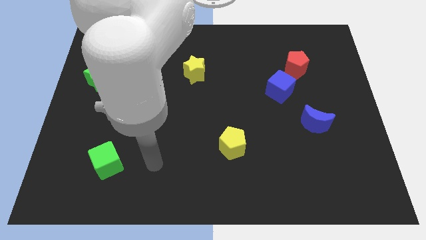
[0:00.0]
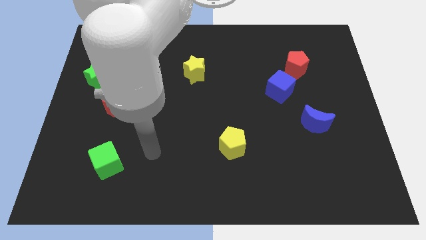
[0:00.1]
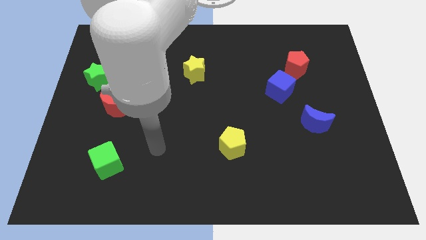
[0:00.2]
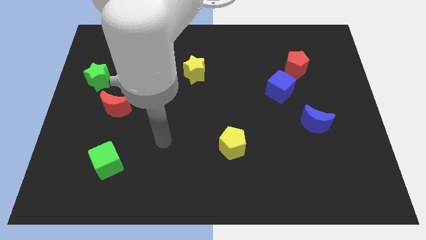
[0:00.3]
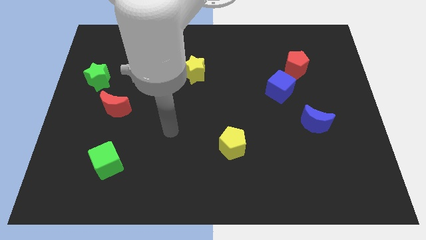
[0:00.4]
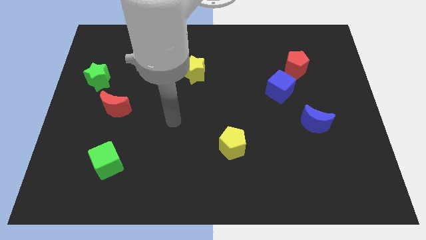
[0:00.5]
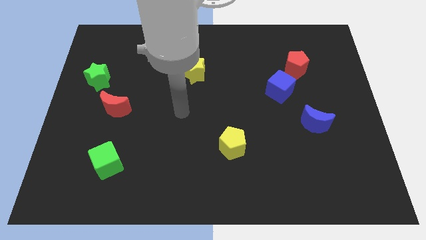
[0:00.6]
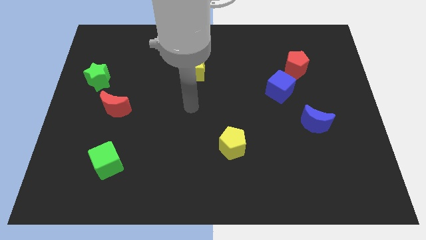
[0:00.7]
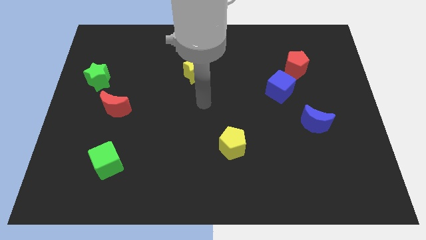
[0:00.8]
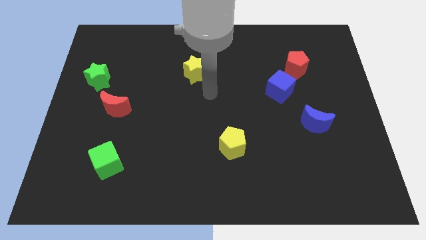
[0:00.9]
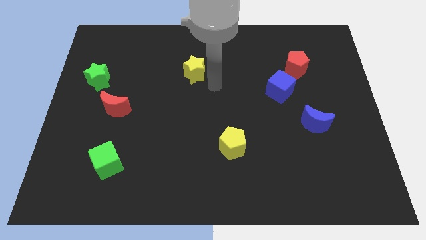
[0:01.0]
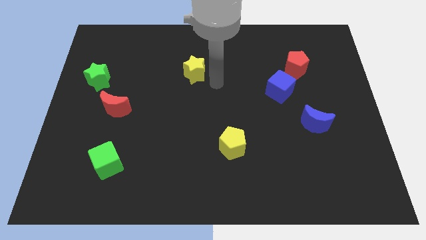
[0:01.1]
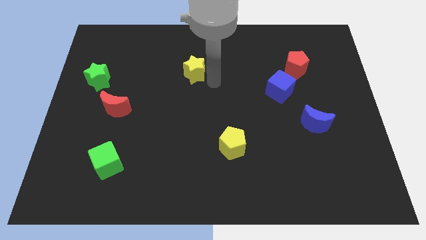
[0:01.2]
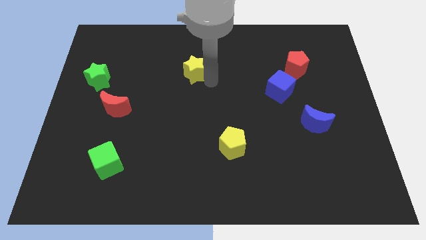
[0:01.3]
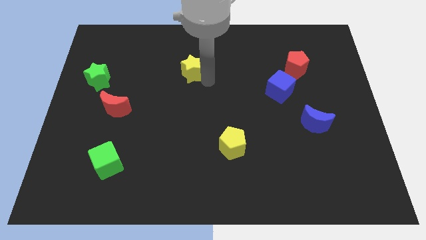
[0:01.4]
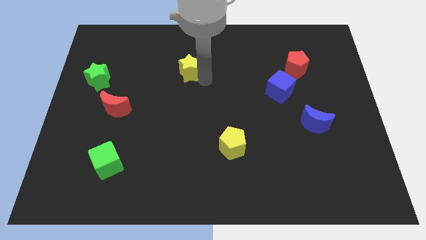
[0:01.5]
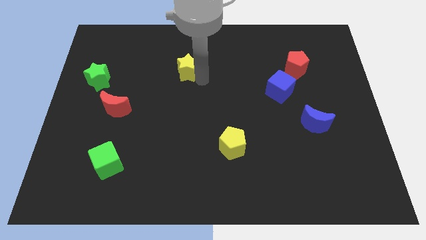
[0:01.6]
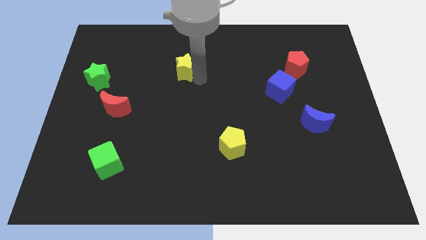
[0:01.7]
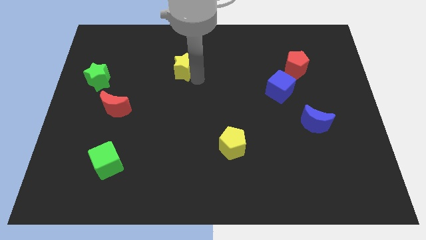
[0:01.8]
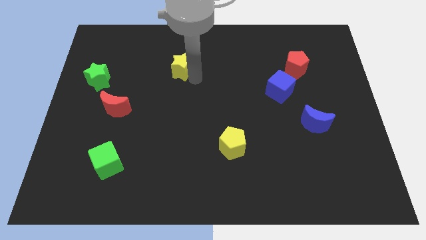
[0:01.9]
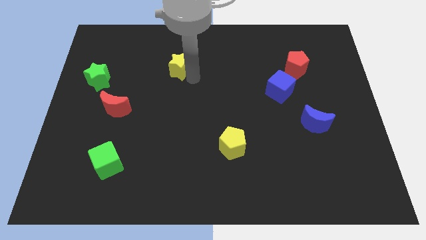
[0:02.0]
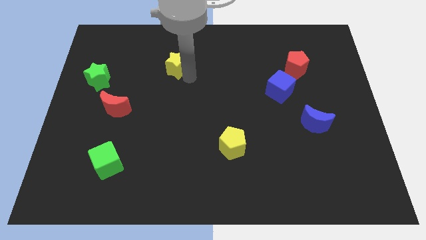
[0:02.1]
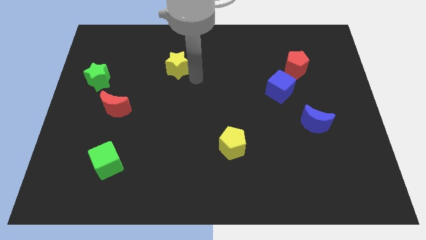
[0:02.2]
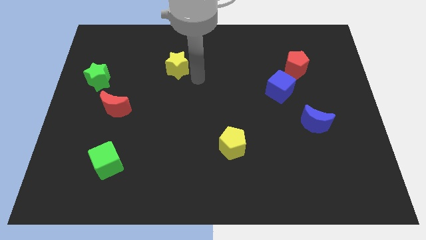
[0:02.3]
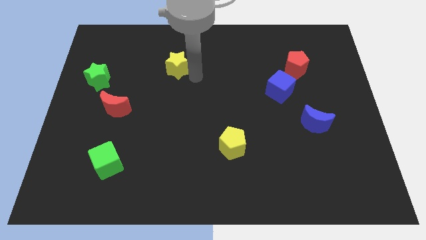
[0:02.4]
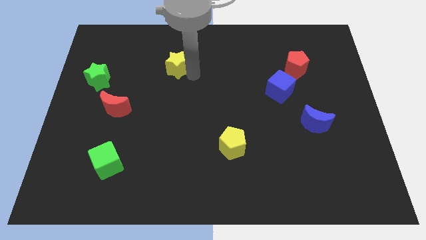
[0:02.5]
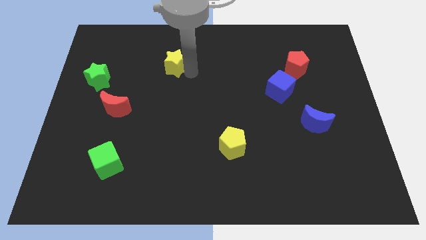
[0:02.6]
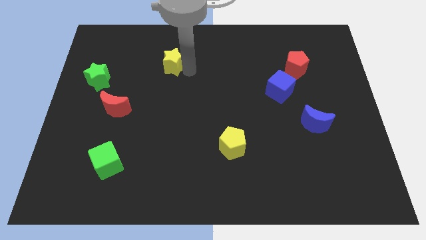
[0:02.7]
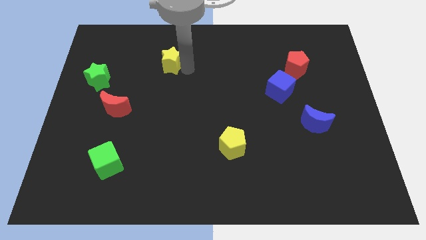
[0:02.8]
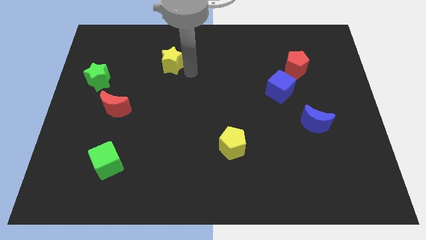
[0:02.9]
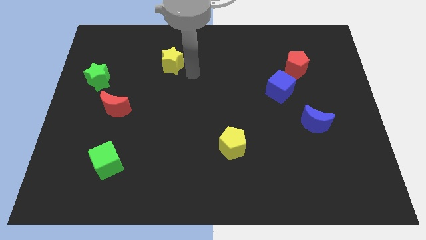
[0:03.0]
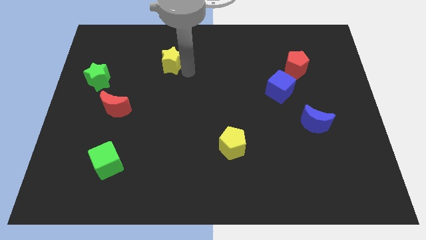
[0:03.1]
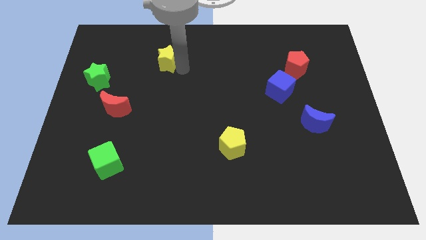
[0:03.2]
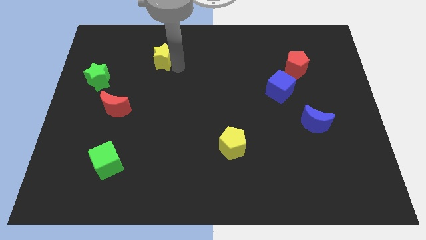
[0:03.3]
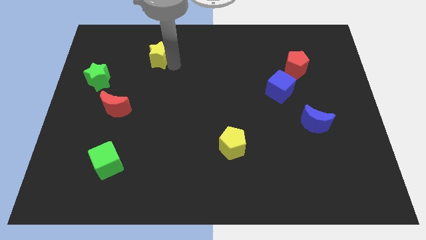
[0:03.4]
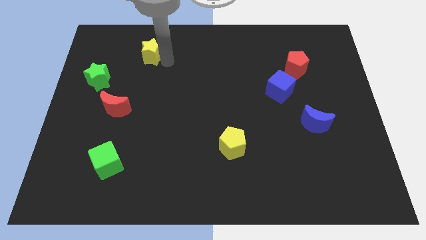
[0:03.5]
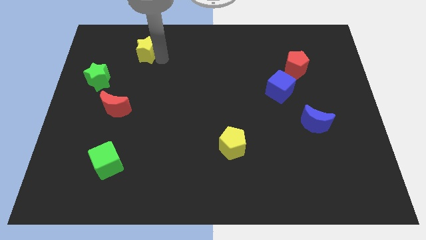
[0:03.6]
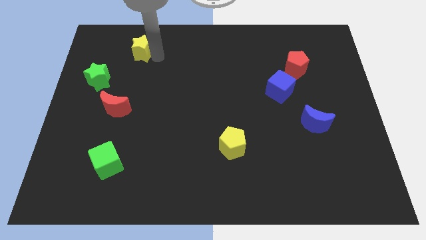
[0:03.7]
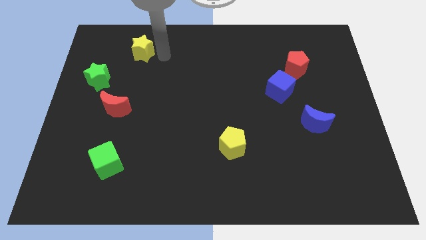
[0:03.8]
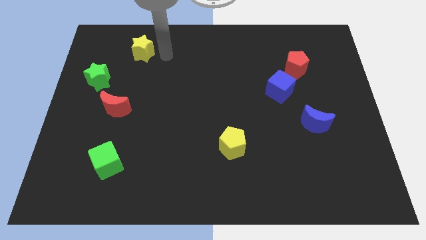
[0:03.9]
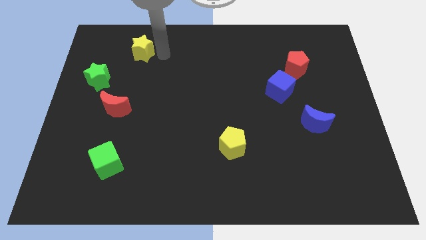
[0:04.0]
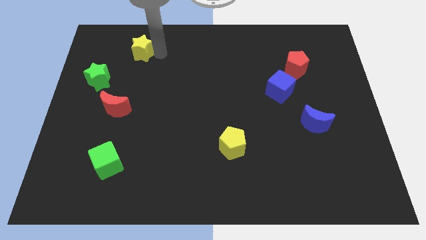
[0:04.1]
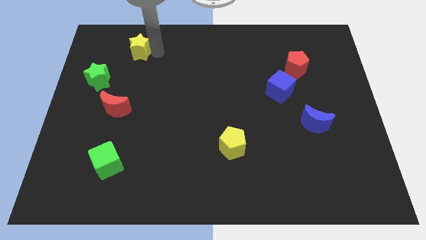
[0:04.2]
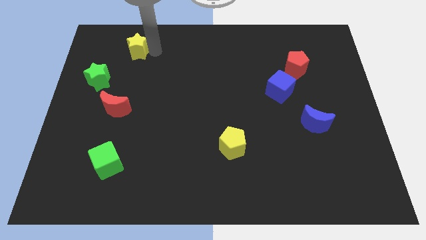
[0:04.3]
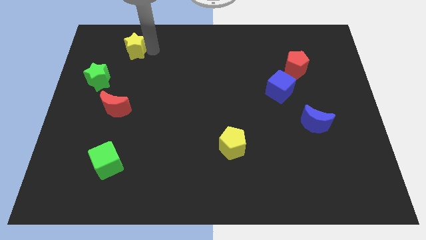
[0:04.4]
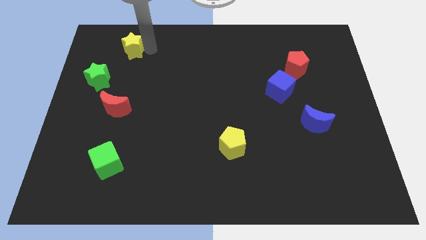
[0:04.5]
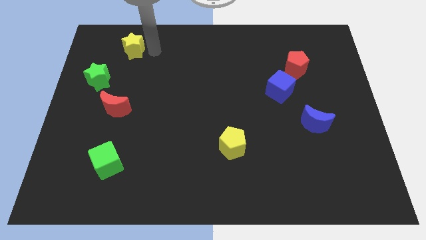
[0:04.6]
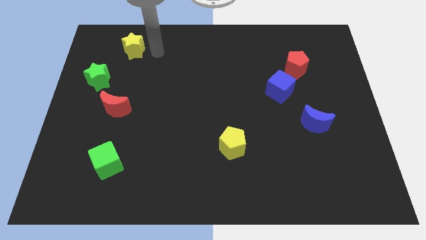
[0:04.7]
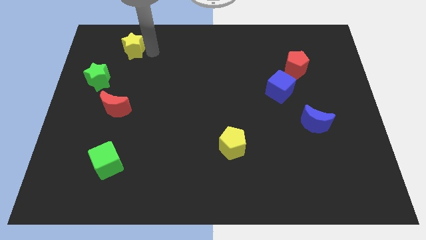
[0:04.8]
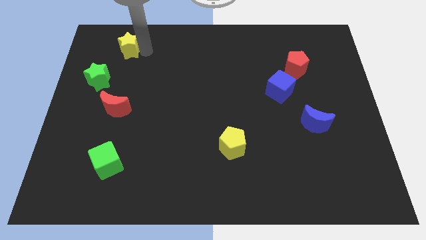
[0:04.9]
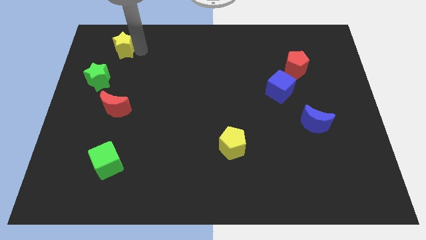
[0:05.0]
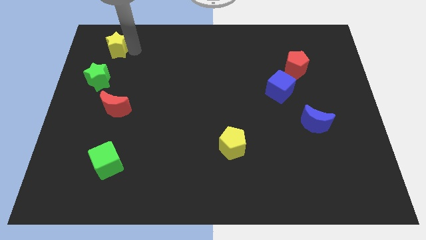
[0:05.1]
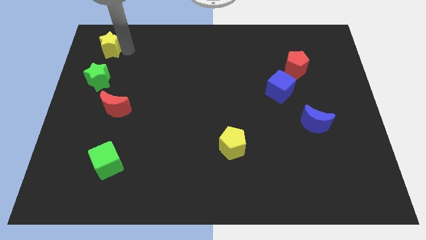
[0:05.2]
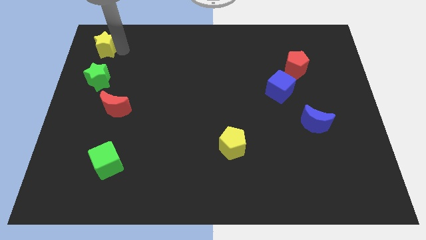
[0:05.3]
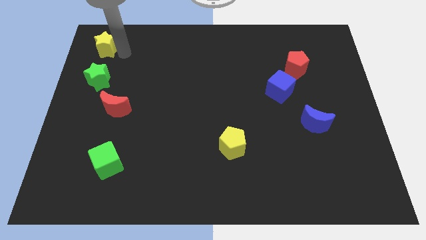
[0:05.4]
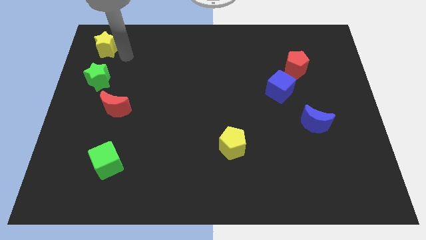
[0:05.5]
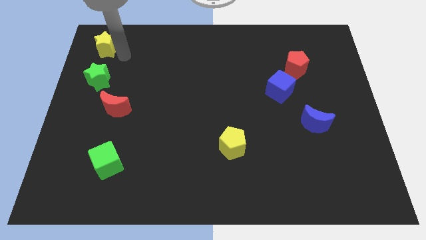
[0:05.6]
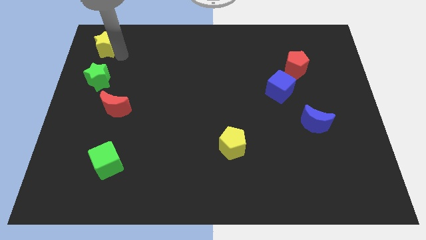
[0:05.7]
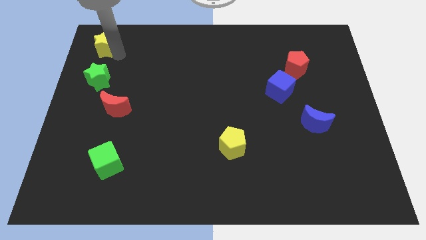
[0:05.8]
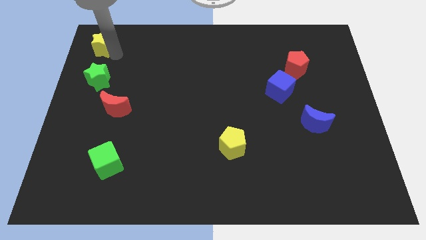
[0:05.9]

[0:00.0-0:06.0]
move the yellow star to the top left

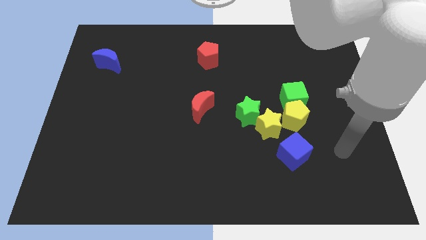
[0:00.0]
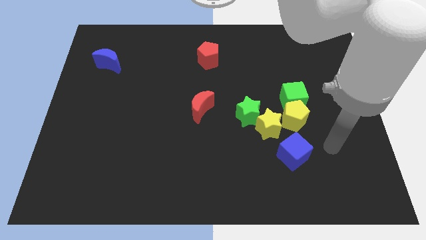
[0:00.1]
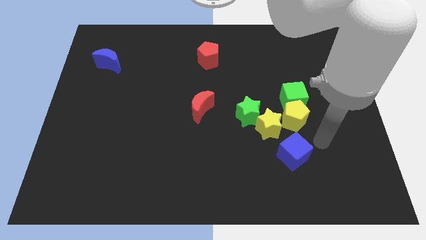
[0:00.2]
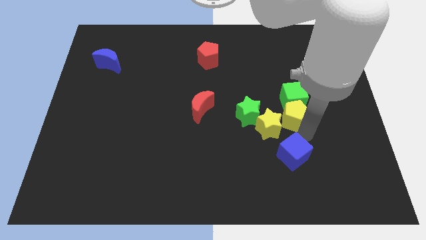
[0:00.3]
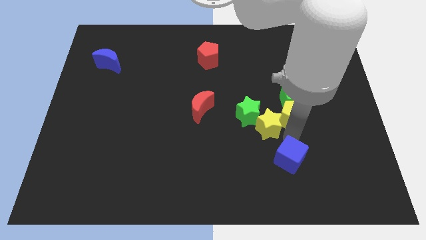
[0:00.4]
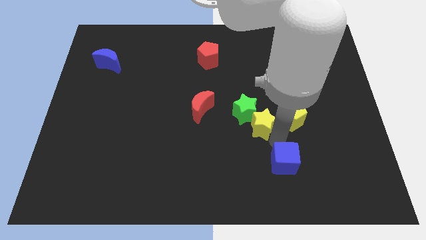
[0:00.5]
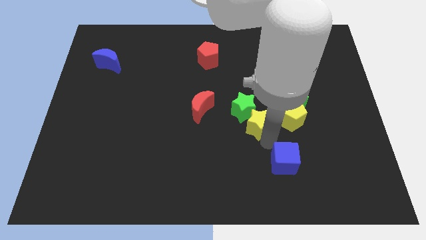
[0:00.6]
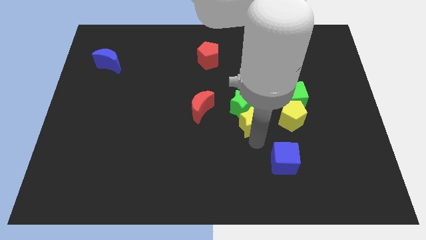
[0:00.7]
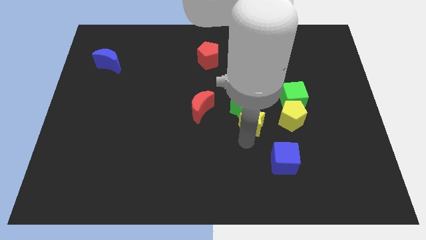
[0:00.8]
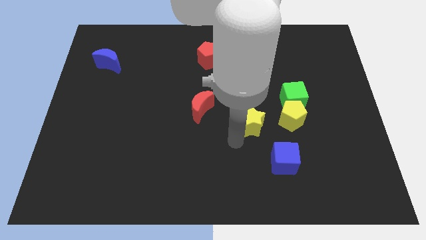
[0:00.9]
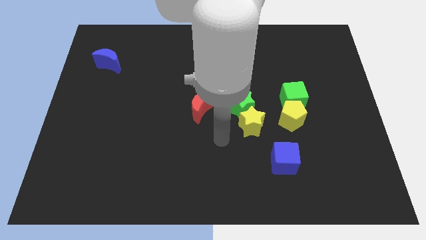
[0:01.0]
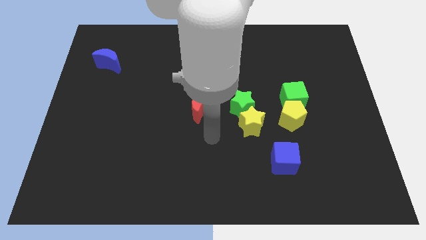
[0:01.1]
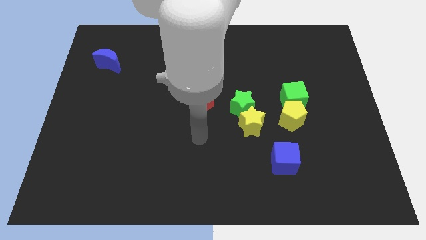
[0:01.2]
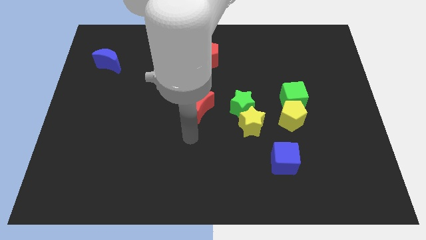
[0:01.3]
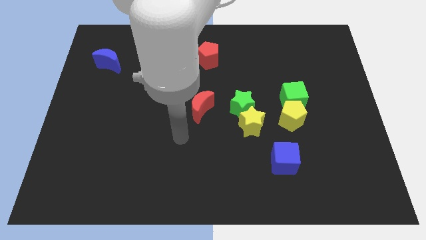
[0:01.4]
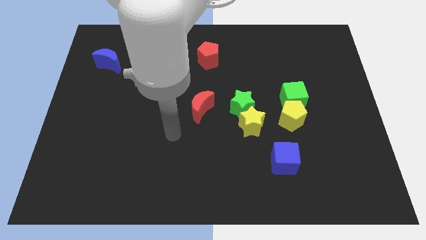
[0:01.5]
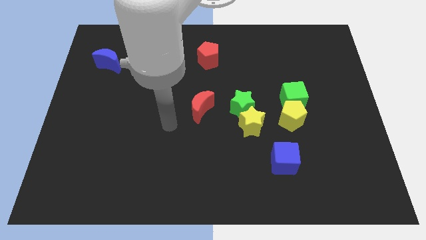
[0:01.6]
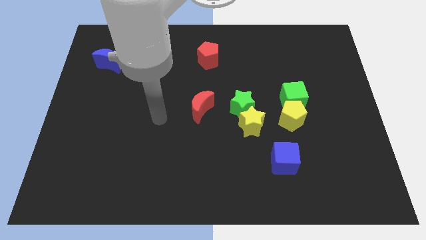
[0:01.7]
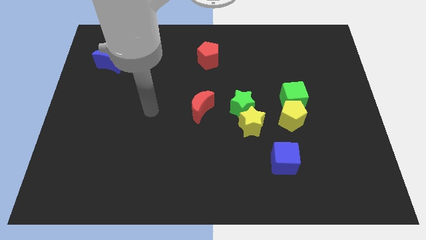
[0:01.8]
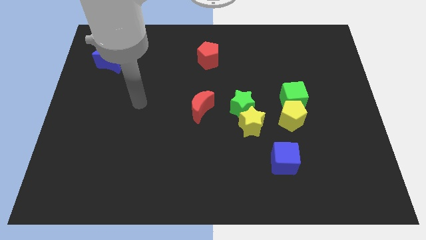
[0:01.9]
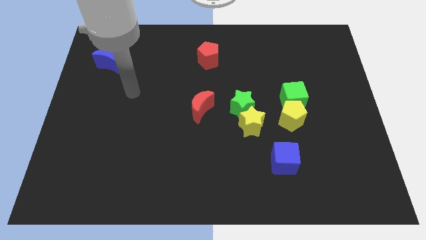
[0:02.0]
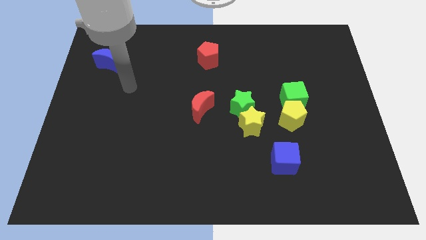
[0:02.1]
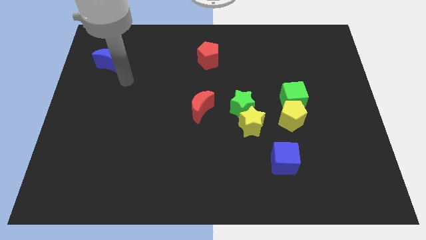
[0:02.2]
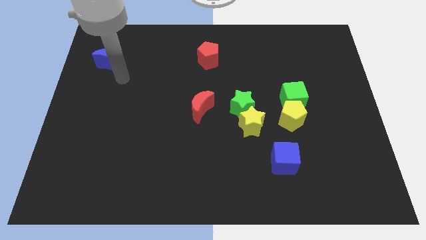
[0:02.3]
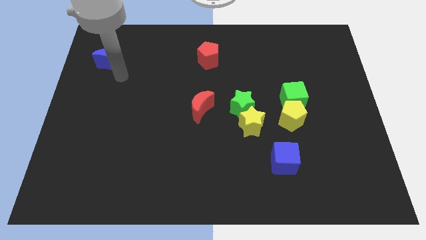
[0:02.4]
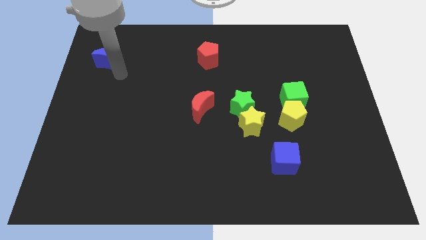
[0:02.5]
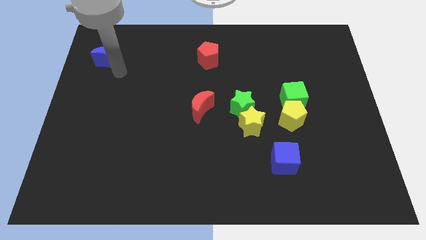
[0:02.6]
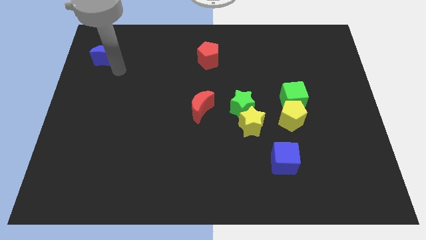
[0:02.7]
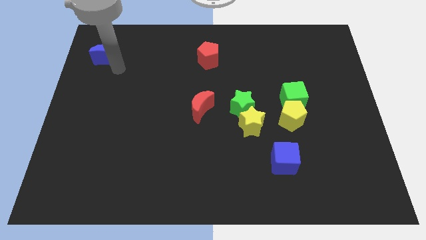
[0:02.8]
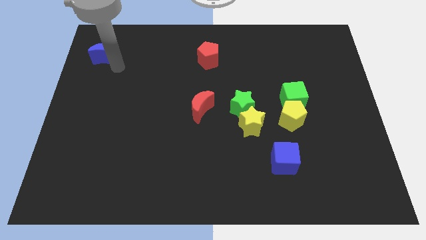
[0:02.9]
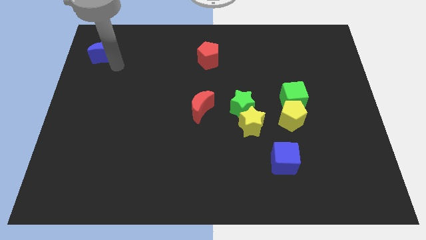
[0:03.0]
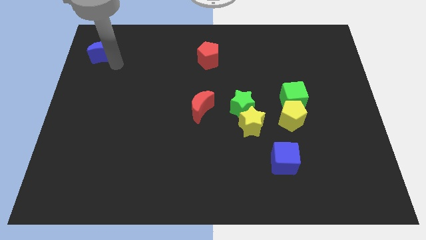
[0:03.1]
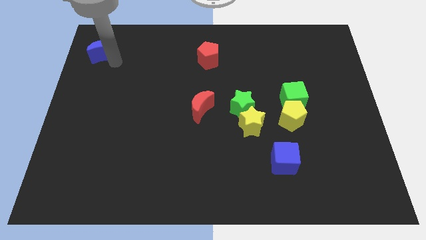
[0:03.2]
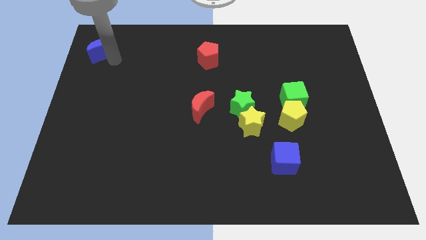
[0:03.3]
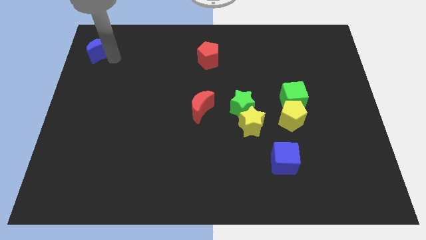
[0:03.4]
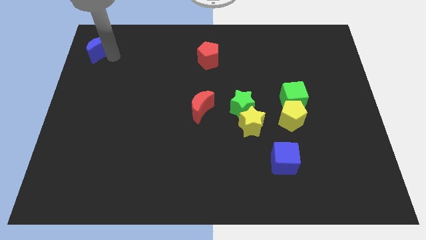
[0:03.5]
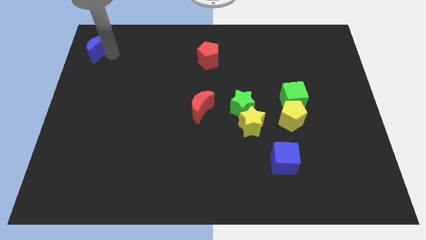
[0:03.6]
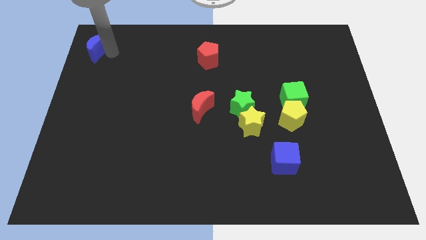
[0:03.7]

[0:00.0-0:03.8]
put the blue moon to the upper left corner
